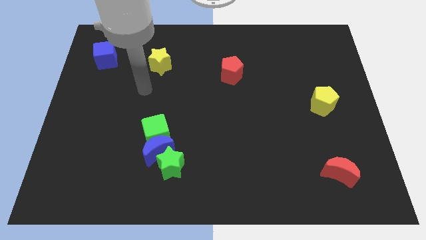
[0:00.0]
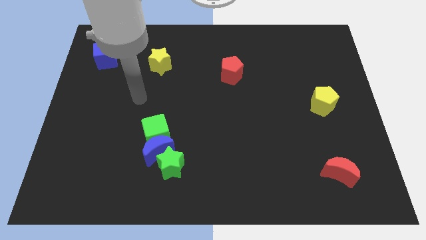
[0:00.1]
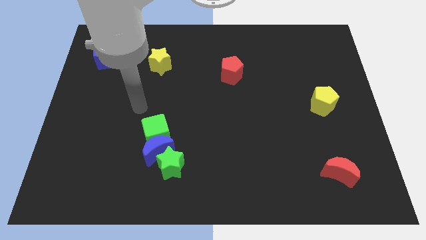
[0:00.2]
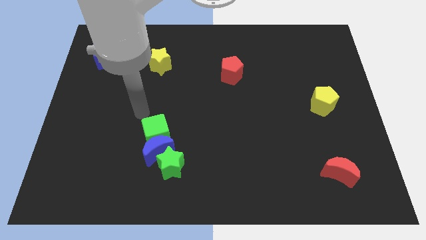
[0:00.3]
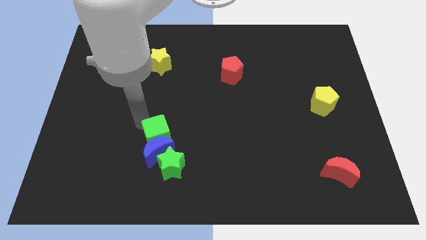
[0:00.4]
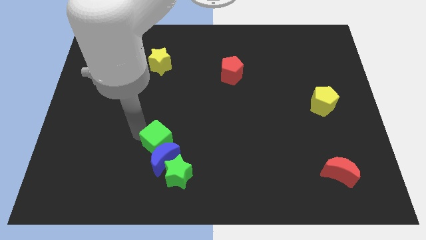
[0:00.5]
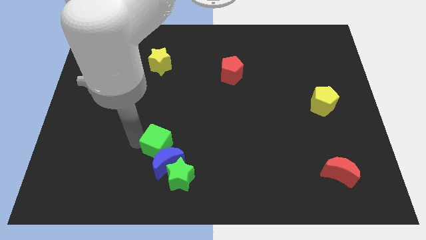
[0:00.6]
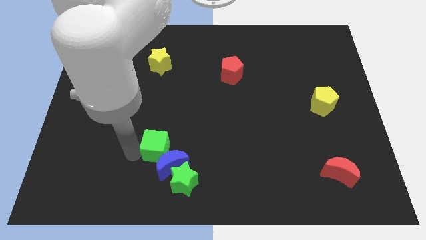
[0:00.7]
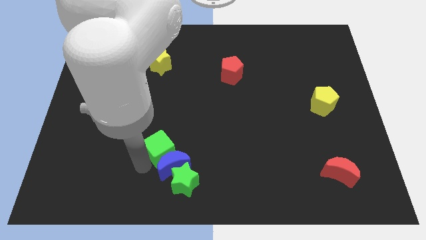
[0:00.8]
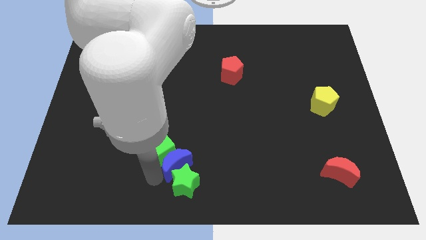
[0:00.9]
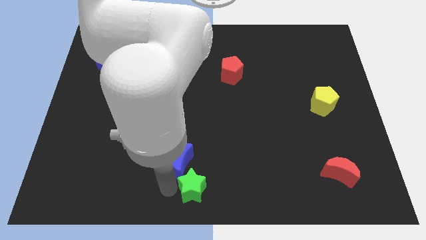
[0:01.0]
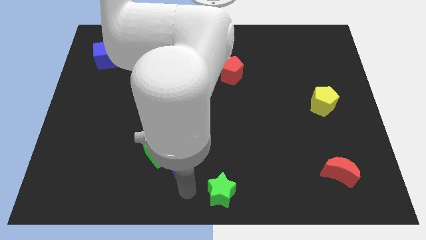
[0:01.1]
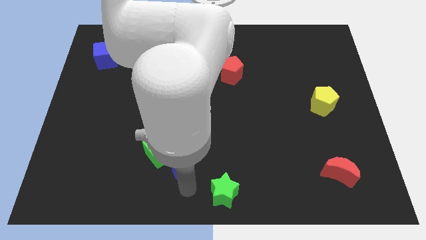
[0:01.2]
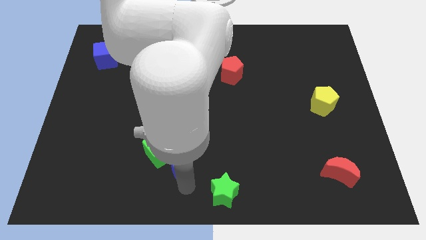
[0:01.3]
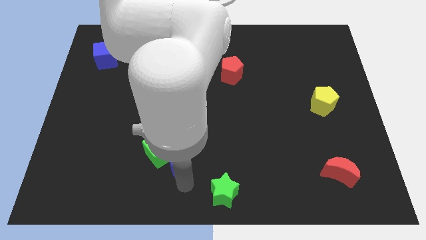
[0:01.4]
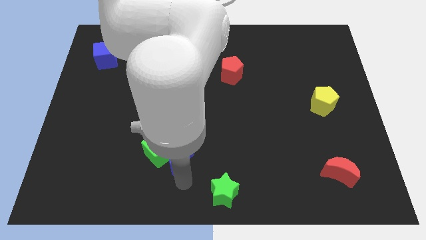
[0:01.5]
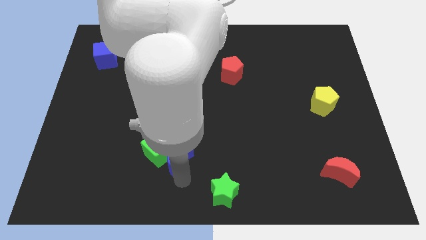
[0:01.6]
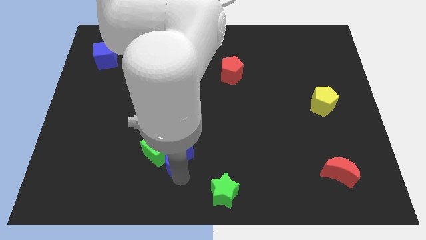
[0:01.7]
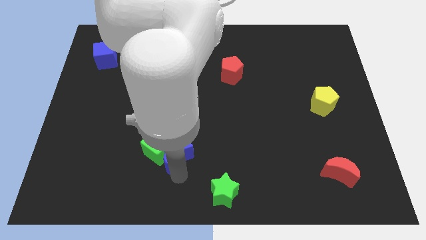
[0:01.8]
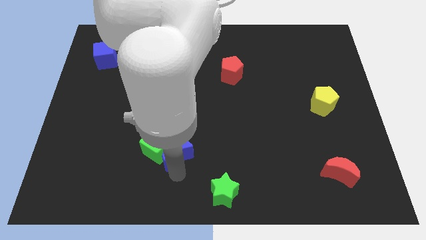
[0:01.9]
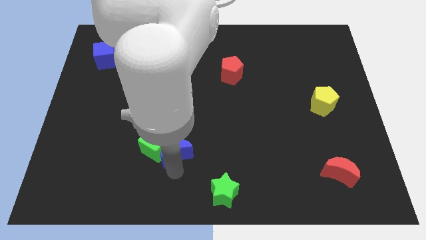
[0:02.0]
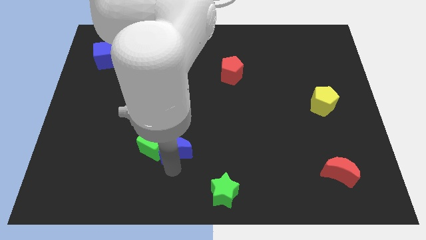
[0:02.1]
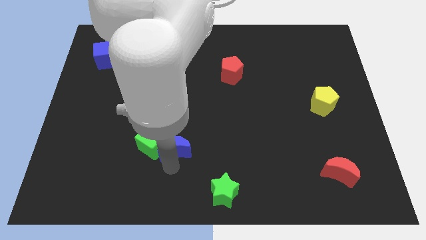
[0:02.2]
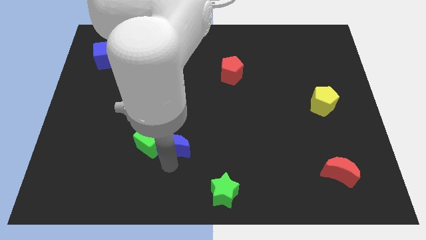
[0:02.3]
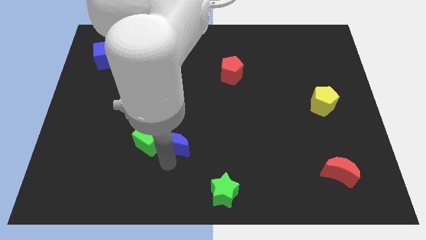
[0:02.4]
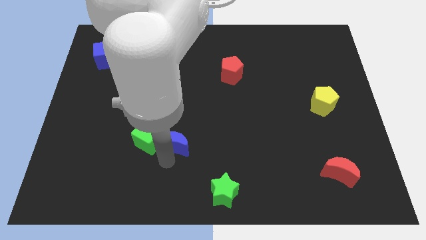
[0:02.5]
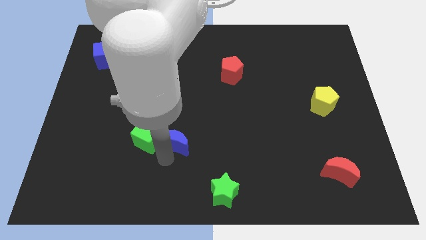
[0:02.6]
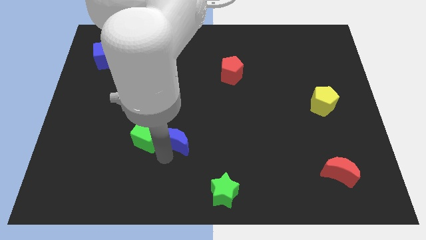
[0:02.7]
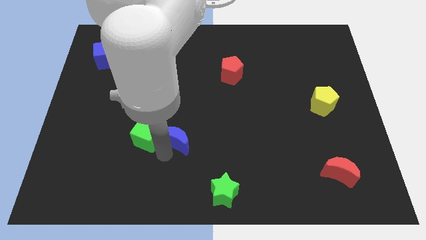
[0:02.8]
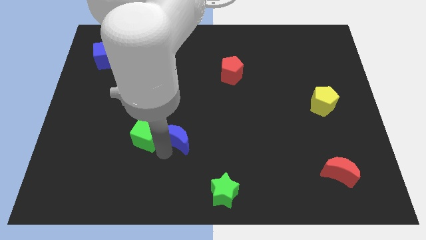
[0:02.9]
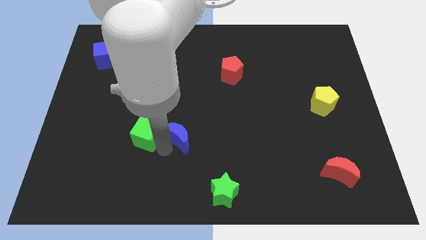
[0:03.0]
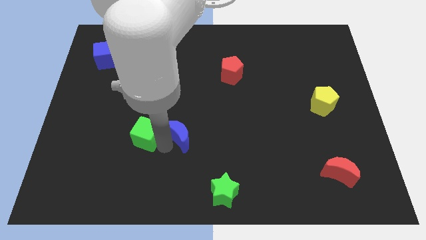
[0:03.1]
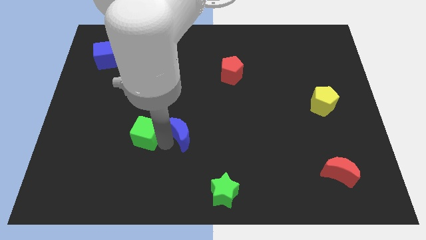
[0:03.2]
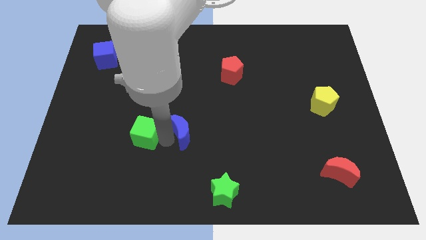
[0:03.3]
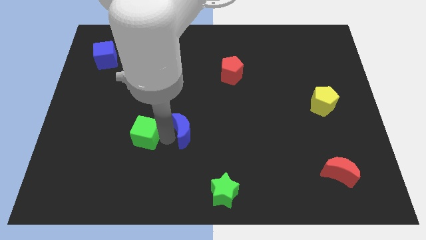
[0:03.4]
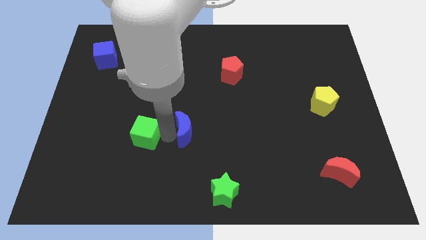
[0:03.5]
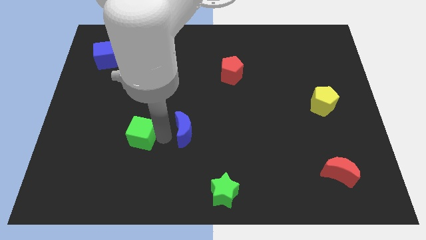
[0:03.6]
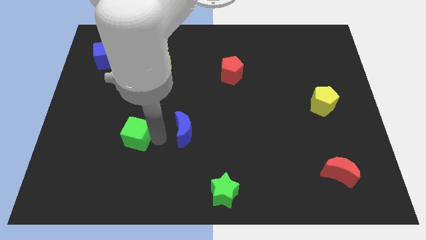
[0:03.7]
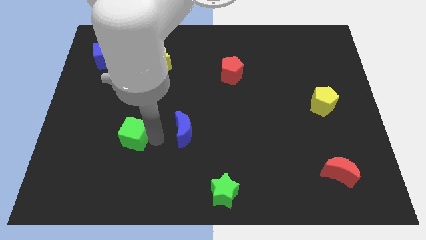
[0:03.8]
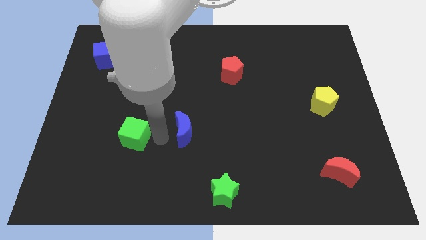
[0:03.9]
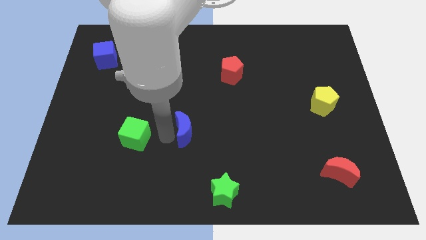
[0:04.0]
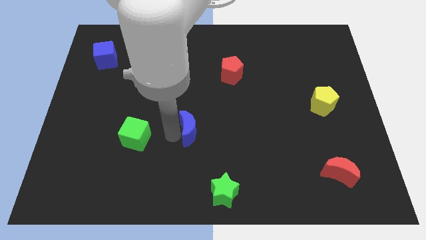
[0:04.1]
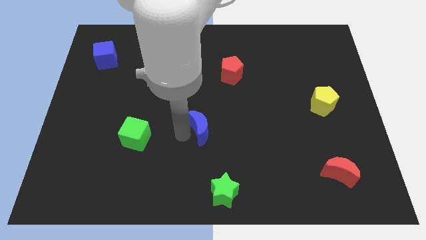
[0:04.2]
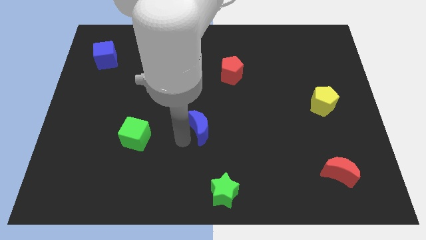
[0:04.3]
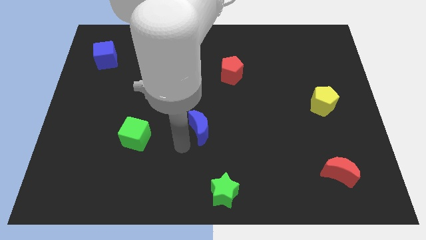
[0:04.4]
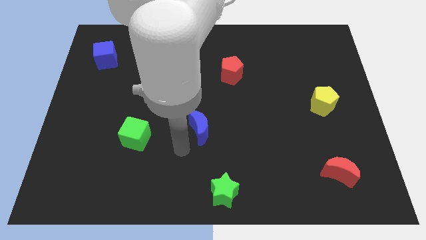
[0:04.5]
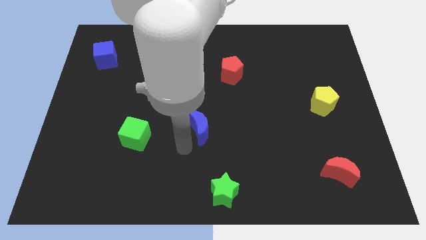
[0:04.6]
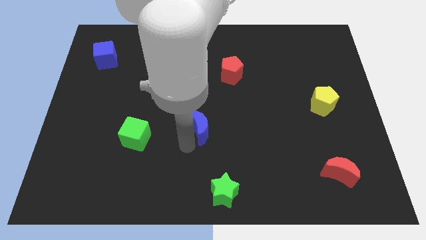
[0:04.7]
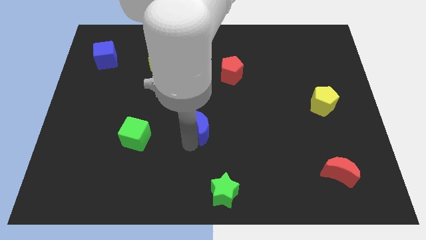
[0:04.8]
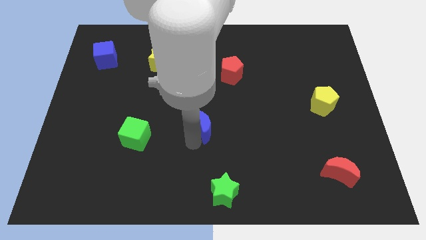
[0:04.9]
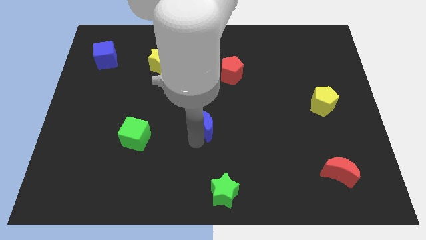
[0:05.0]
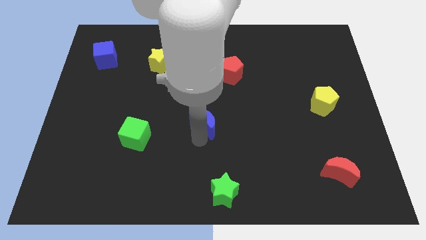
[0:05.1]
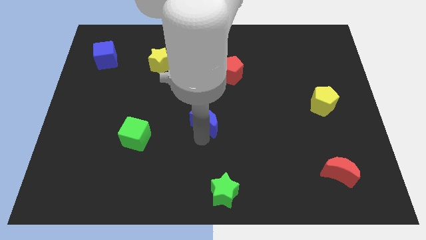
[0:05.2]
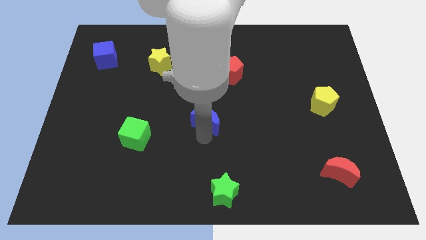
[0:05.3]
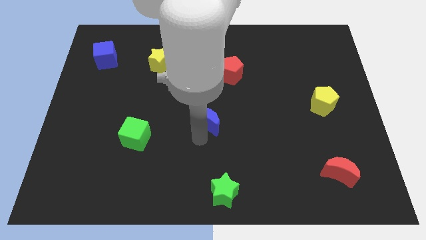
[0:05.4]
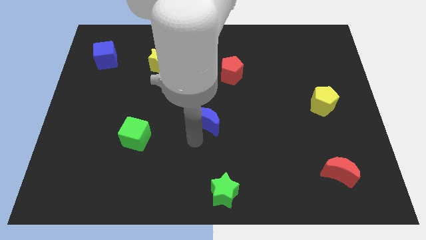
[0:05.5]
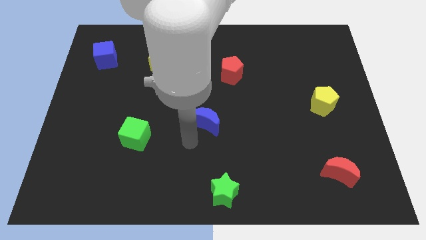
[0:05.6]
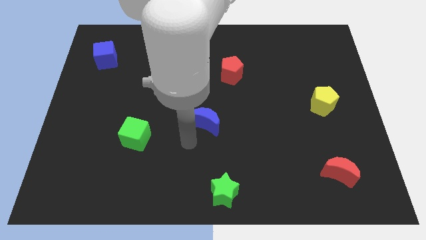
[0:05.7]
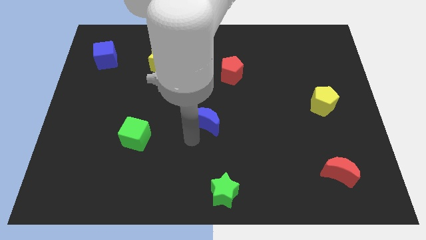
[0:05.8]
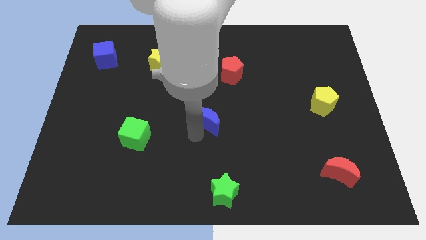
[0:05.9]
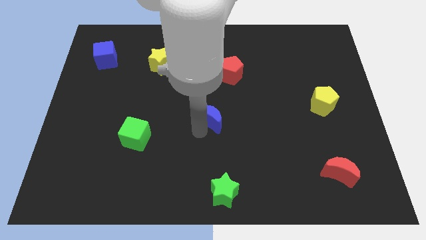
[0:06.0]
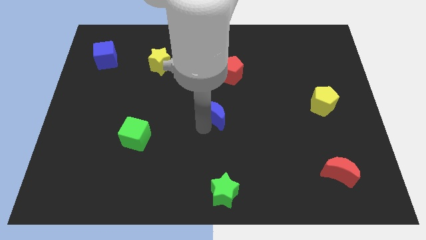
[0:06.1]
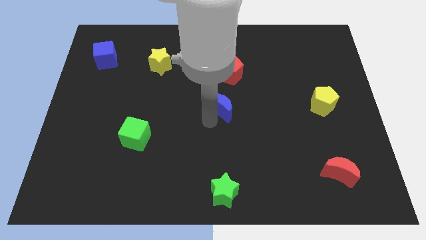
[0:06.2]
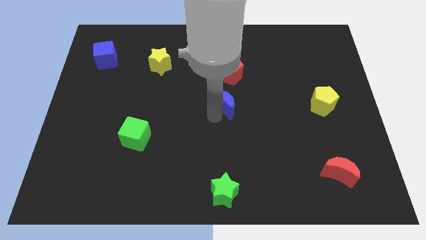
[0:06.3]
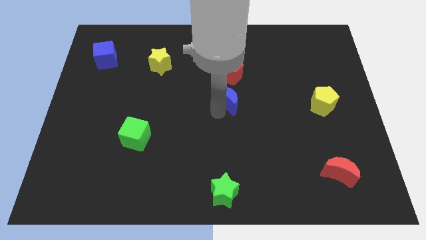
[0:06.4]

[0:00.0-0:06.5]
push the blue moon up and right diagonally

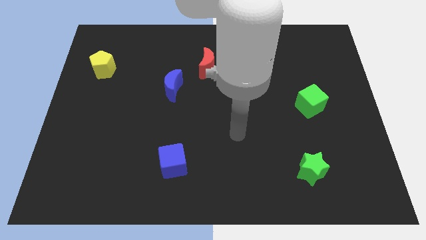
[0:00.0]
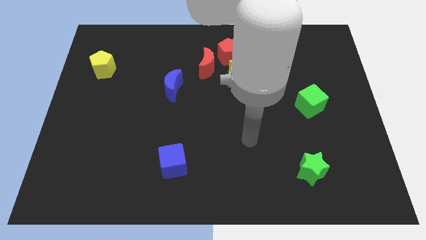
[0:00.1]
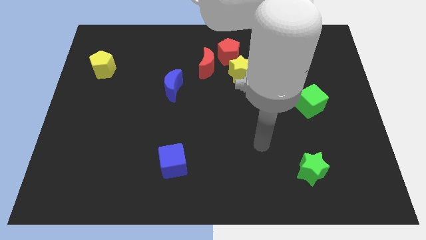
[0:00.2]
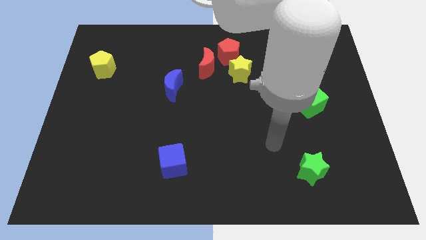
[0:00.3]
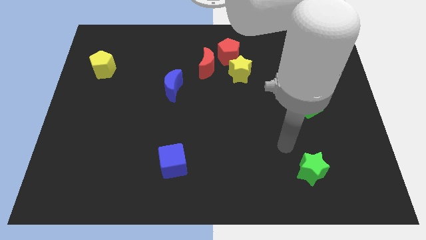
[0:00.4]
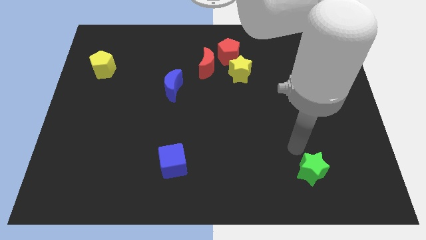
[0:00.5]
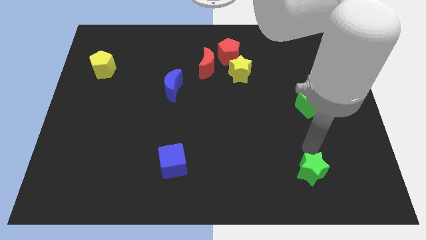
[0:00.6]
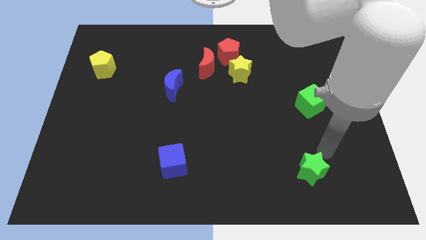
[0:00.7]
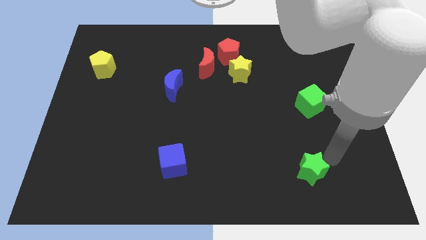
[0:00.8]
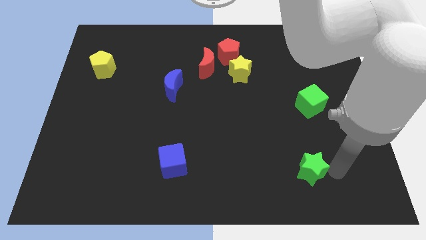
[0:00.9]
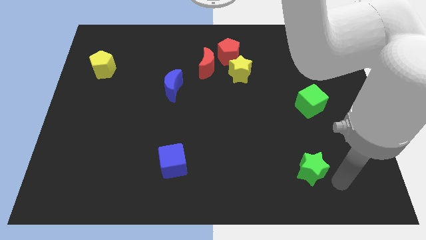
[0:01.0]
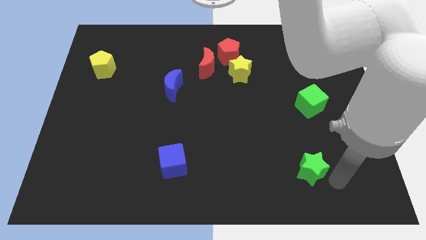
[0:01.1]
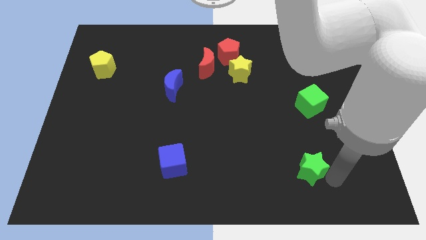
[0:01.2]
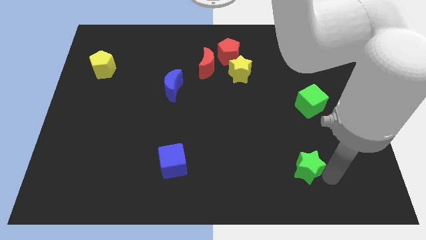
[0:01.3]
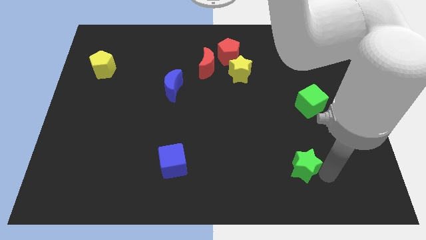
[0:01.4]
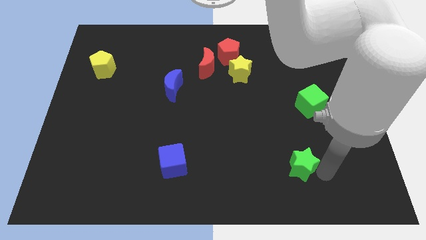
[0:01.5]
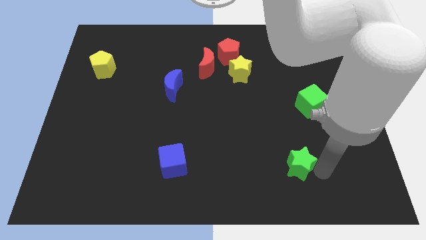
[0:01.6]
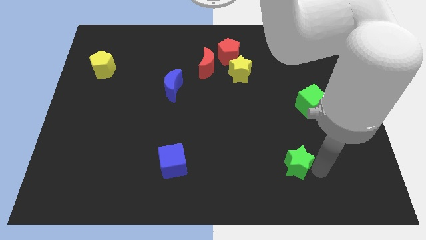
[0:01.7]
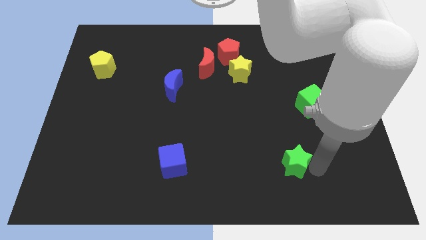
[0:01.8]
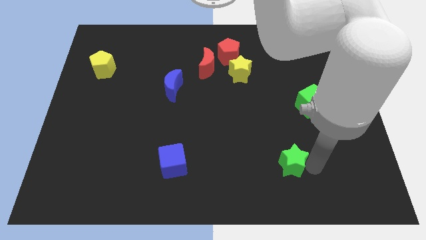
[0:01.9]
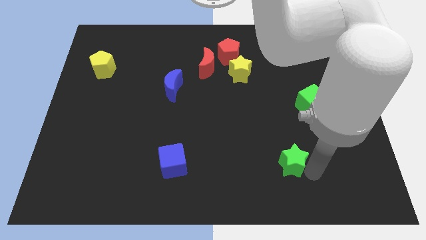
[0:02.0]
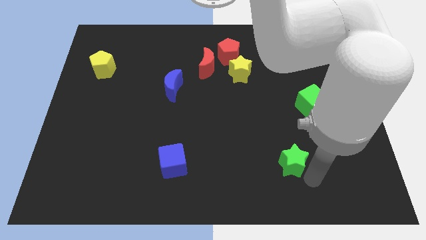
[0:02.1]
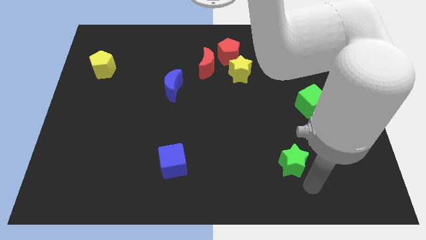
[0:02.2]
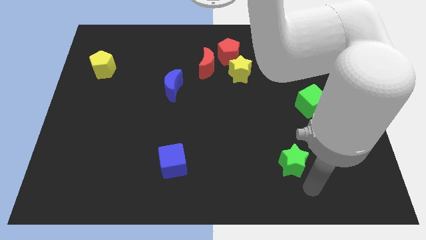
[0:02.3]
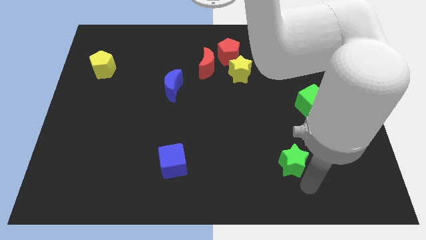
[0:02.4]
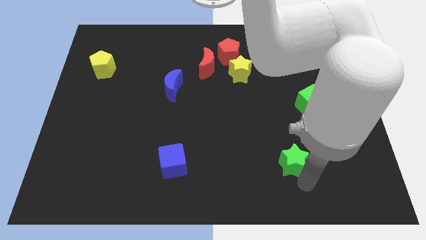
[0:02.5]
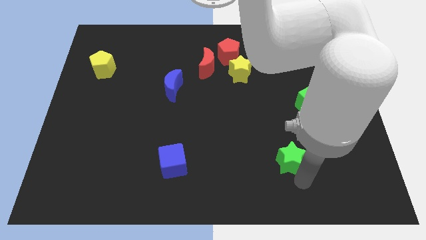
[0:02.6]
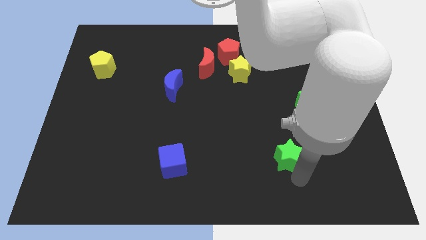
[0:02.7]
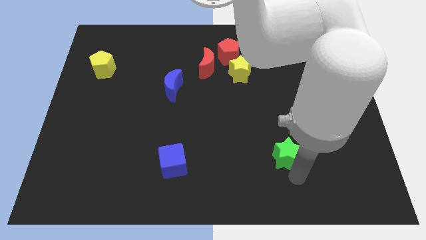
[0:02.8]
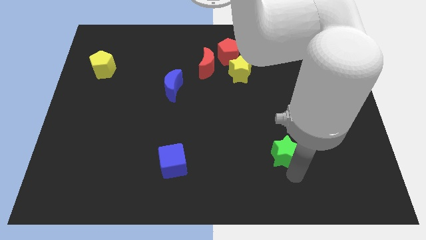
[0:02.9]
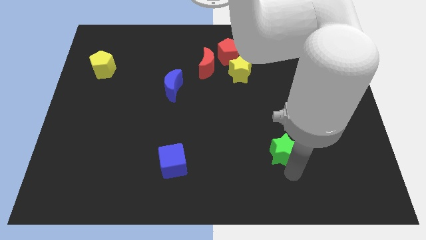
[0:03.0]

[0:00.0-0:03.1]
slide the green star a little upwards and to the left diagonally
